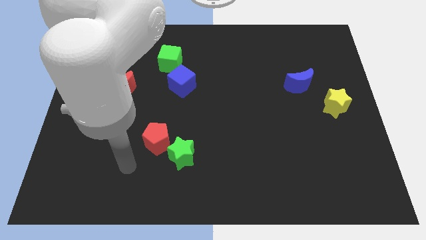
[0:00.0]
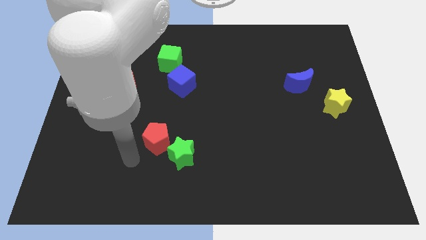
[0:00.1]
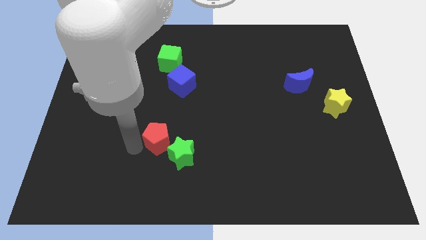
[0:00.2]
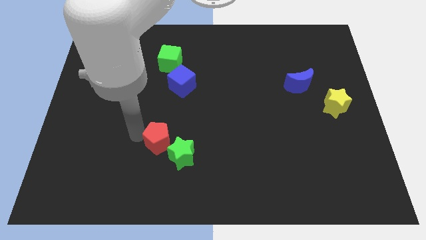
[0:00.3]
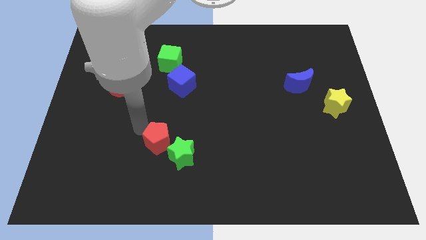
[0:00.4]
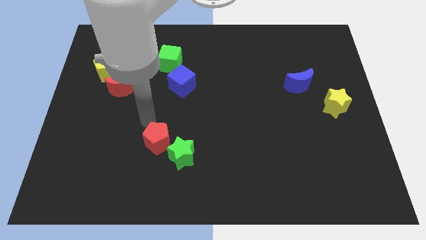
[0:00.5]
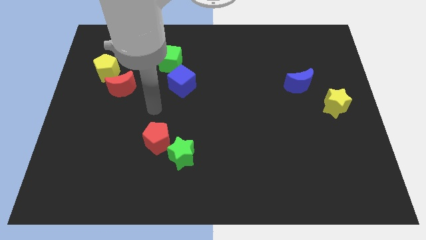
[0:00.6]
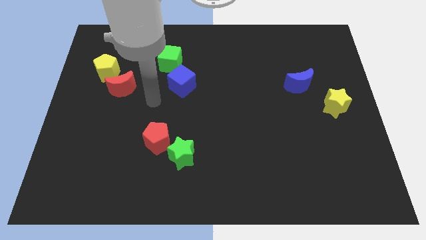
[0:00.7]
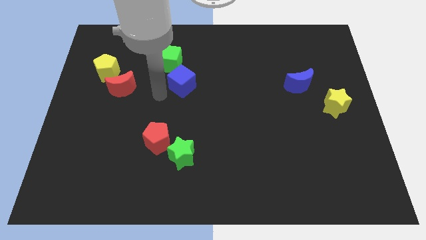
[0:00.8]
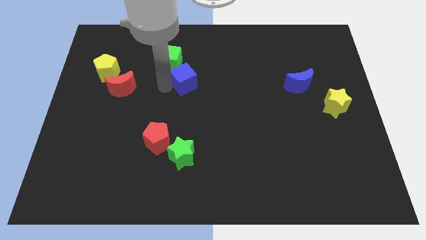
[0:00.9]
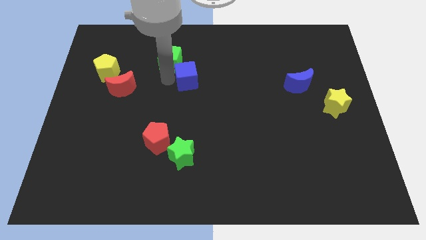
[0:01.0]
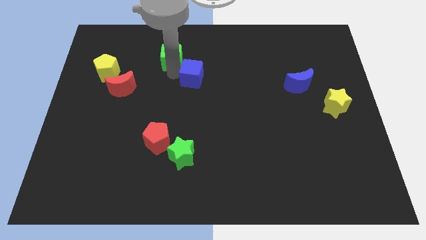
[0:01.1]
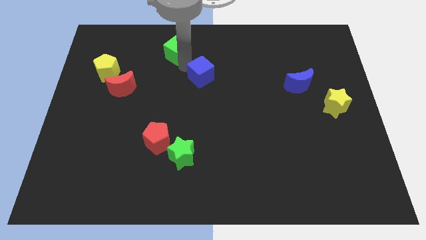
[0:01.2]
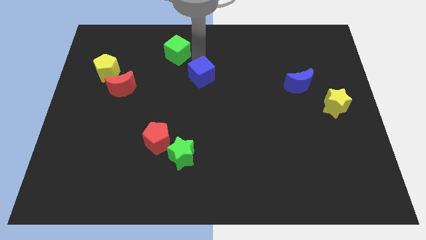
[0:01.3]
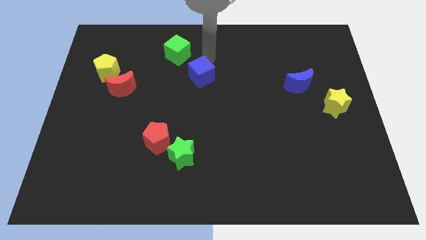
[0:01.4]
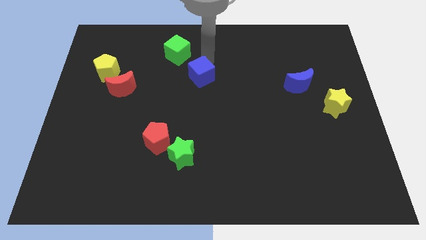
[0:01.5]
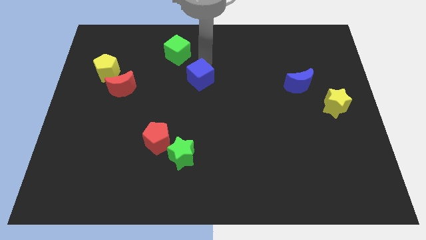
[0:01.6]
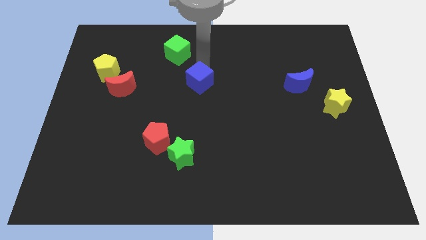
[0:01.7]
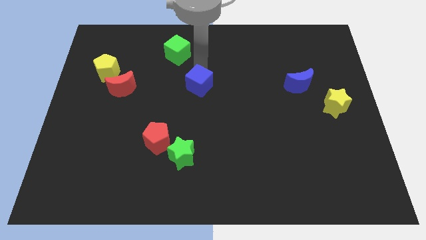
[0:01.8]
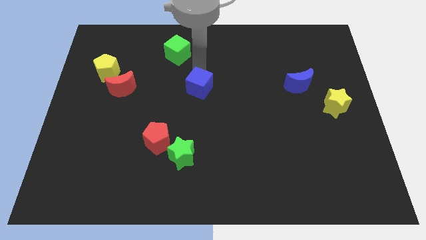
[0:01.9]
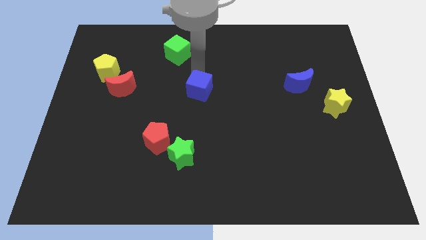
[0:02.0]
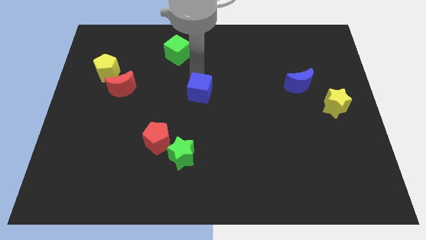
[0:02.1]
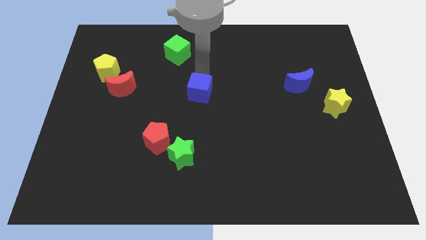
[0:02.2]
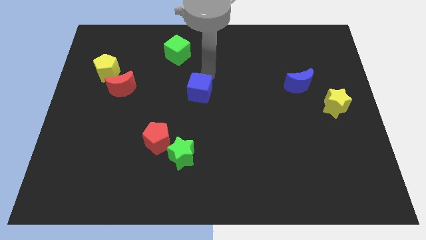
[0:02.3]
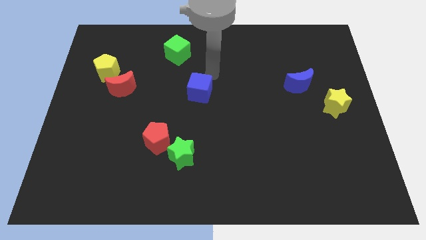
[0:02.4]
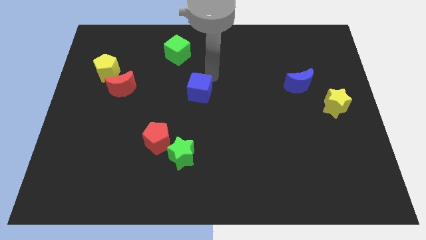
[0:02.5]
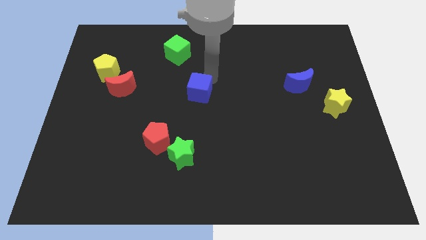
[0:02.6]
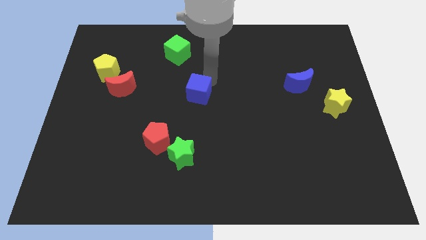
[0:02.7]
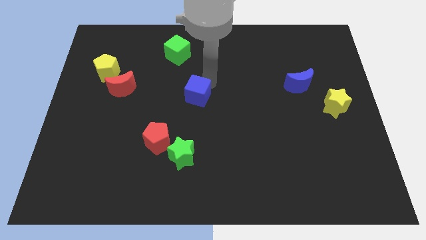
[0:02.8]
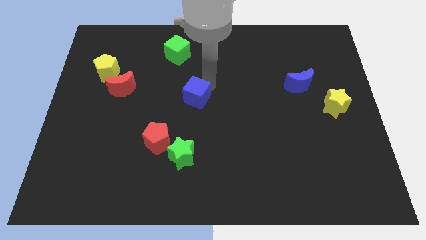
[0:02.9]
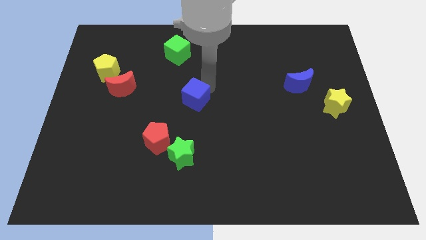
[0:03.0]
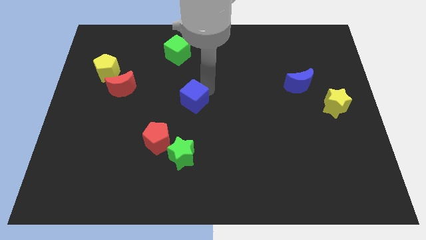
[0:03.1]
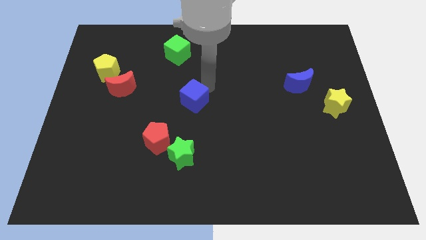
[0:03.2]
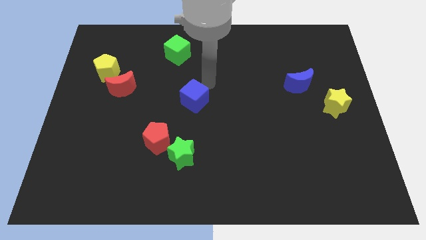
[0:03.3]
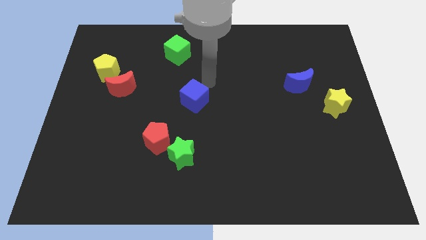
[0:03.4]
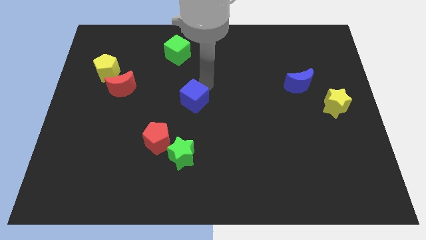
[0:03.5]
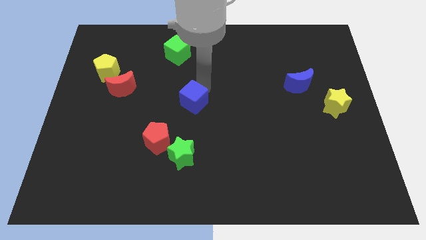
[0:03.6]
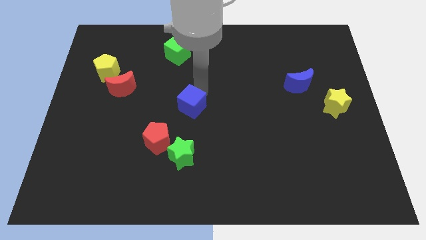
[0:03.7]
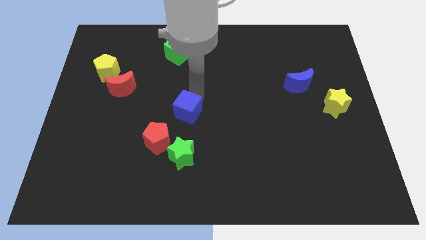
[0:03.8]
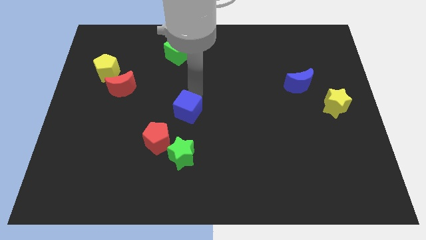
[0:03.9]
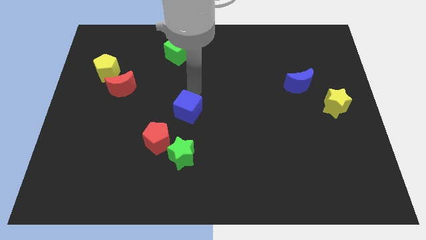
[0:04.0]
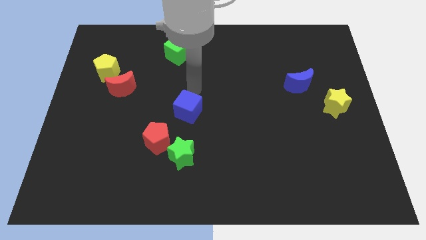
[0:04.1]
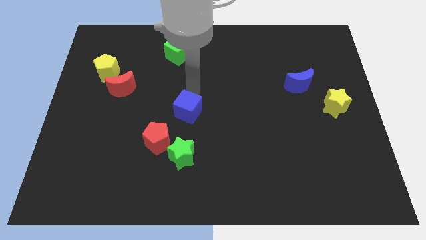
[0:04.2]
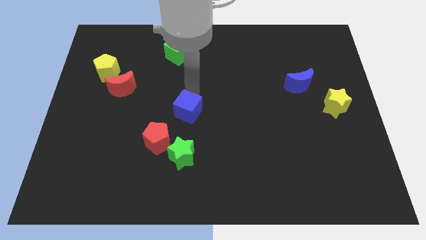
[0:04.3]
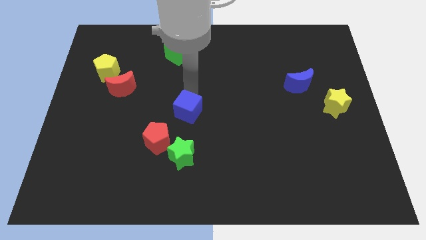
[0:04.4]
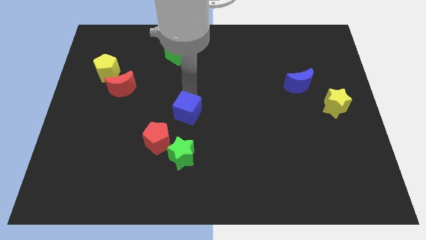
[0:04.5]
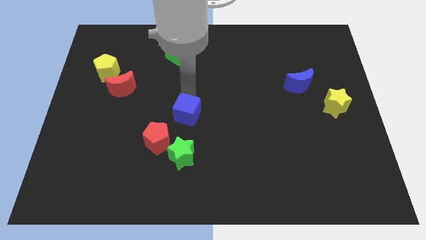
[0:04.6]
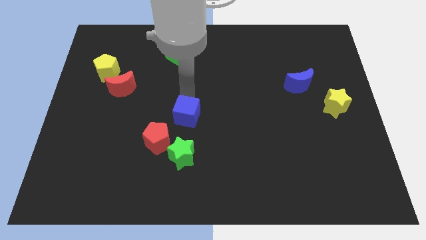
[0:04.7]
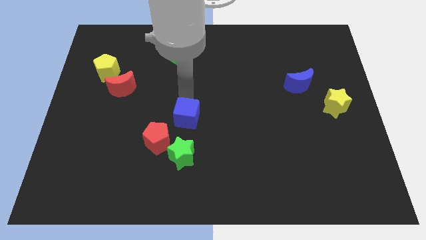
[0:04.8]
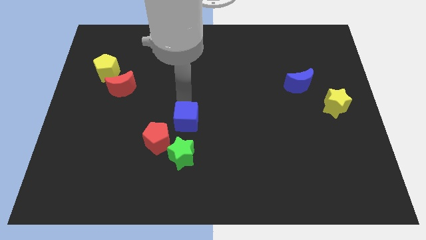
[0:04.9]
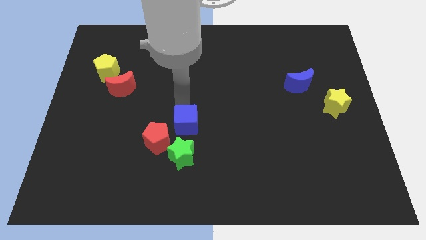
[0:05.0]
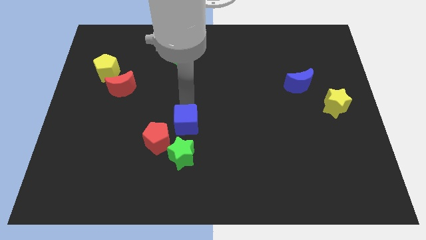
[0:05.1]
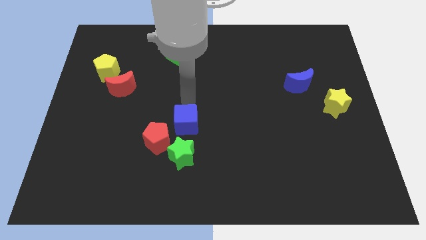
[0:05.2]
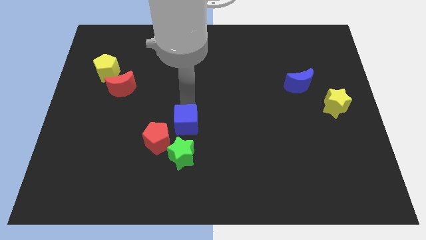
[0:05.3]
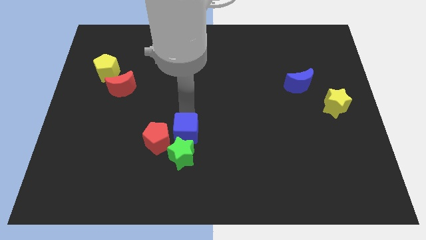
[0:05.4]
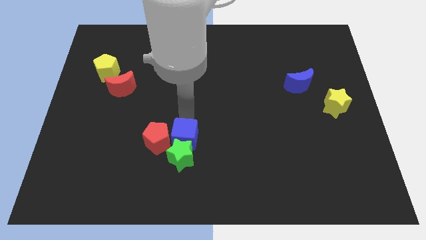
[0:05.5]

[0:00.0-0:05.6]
move the blue cube next to the green star
